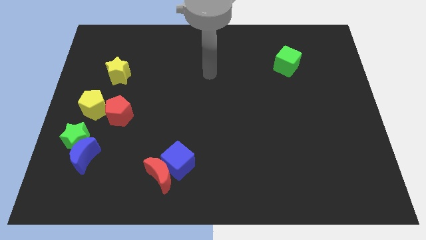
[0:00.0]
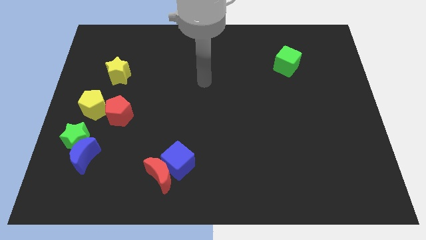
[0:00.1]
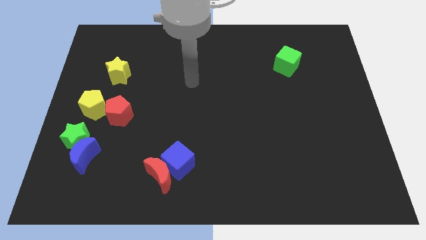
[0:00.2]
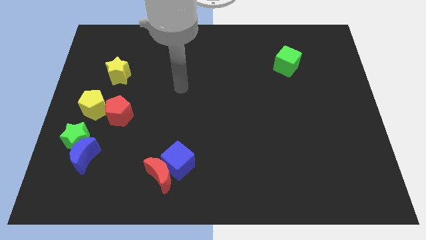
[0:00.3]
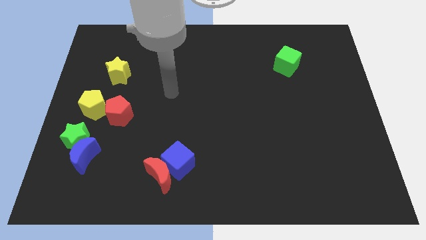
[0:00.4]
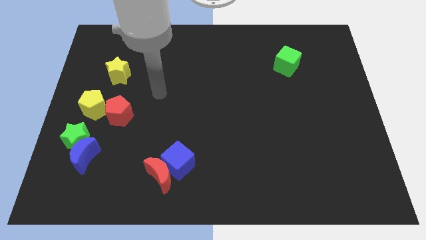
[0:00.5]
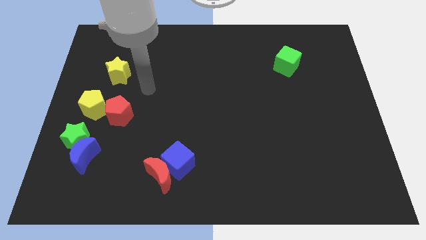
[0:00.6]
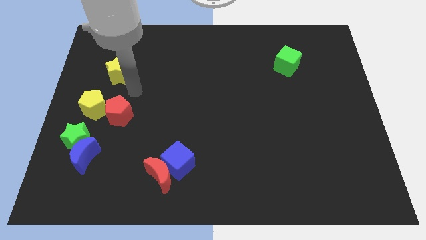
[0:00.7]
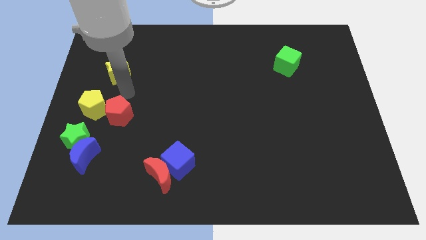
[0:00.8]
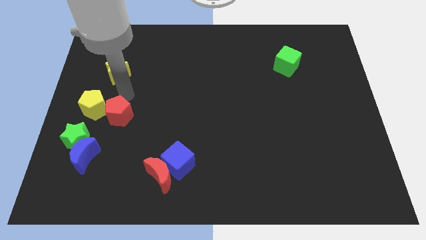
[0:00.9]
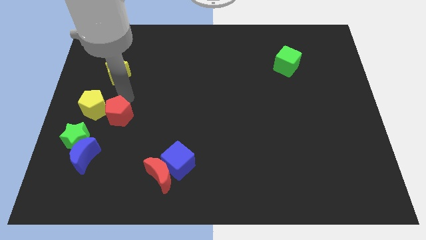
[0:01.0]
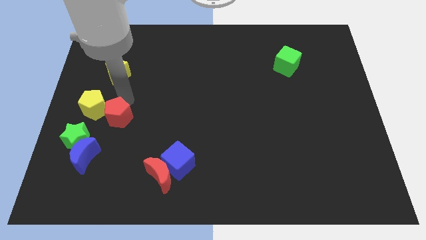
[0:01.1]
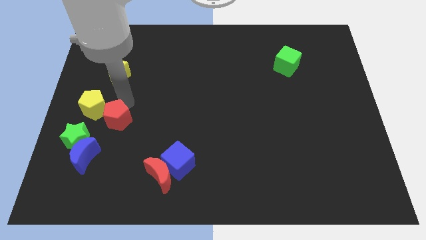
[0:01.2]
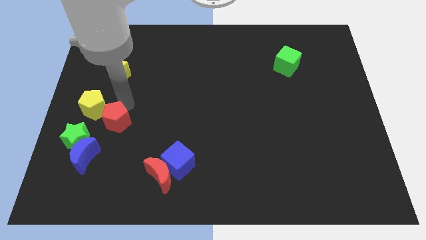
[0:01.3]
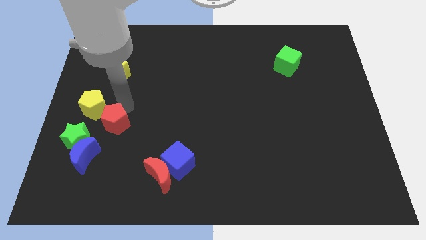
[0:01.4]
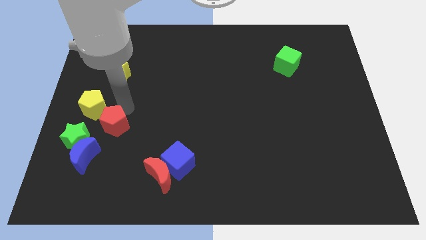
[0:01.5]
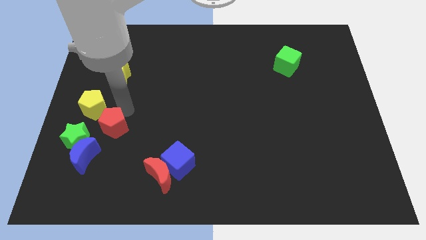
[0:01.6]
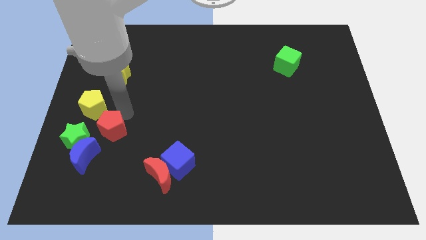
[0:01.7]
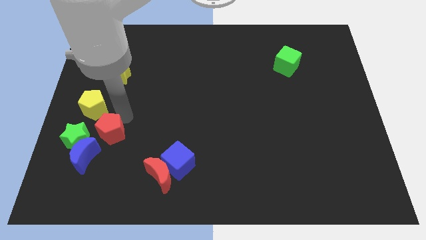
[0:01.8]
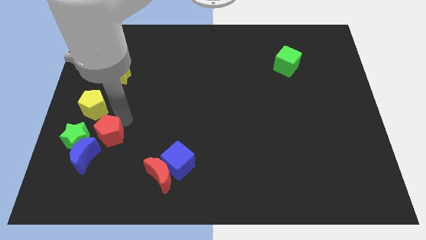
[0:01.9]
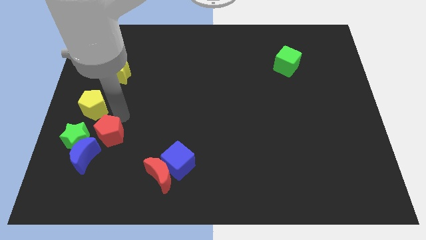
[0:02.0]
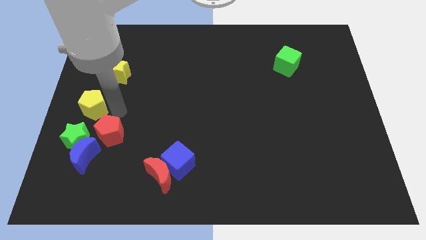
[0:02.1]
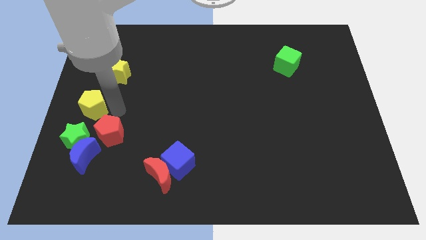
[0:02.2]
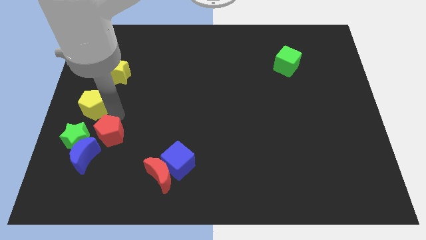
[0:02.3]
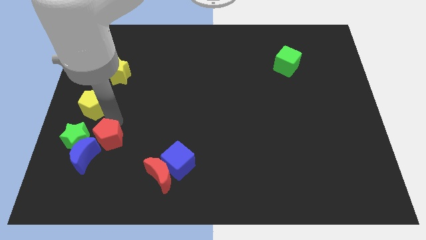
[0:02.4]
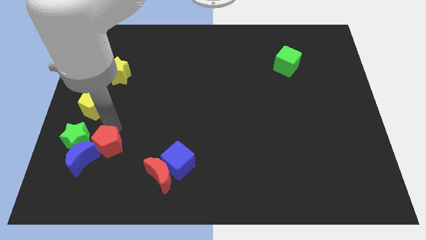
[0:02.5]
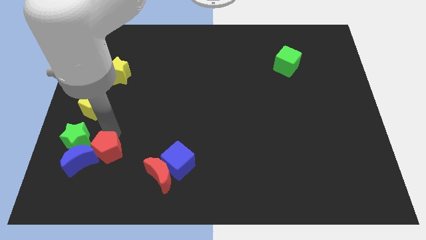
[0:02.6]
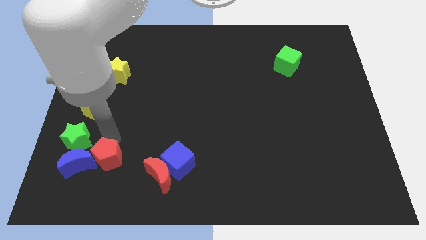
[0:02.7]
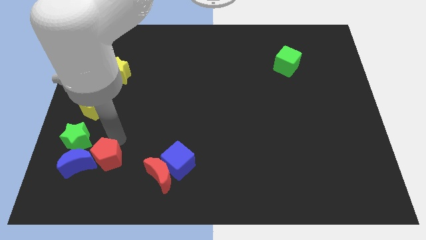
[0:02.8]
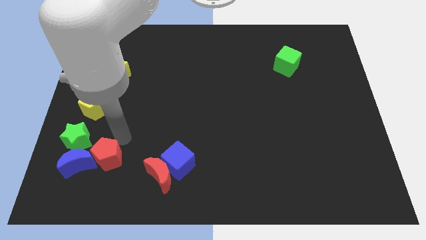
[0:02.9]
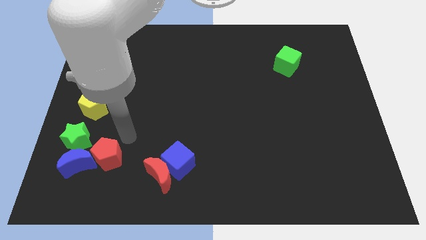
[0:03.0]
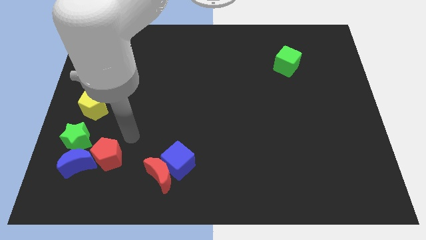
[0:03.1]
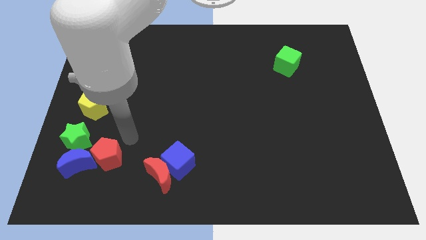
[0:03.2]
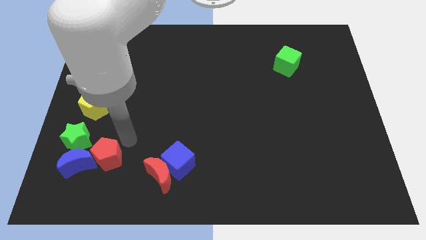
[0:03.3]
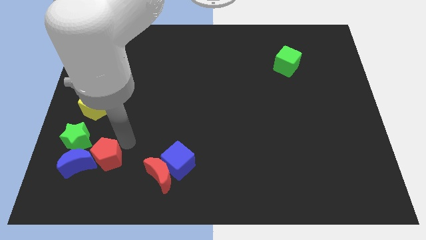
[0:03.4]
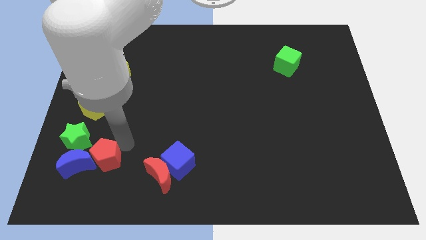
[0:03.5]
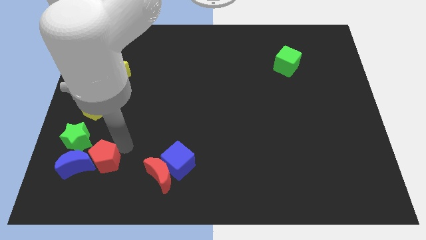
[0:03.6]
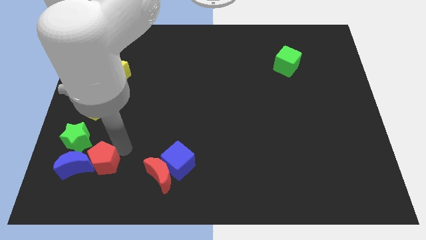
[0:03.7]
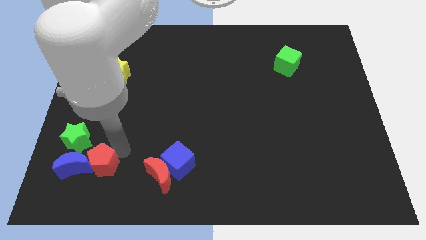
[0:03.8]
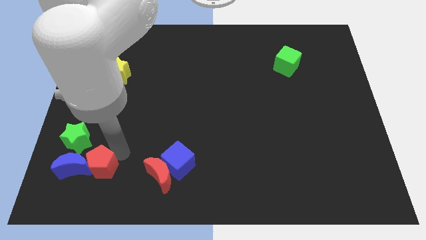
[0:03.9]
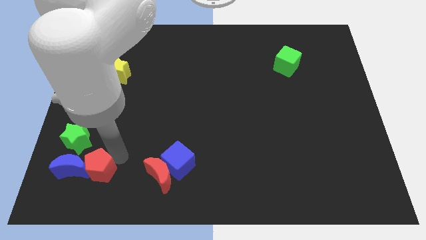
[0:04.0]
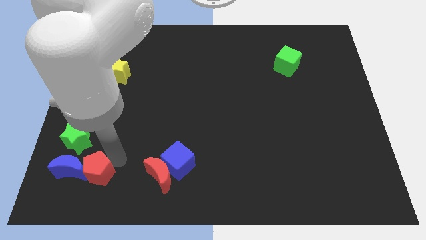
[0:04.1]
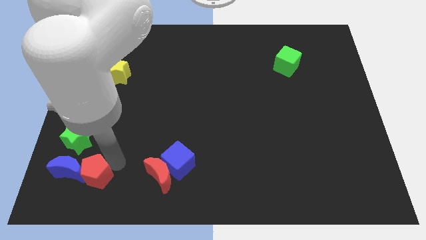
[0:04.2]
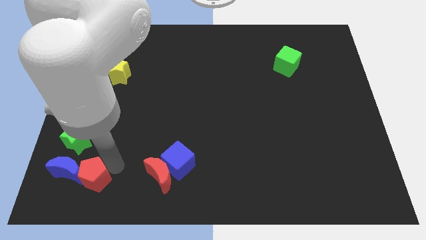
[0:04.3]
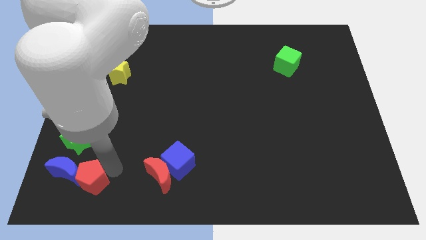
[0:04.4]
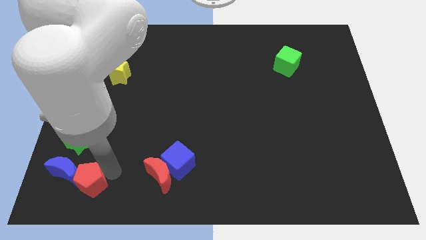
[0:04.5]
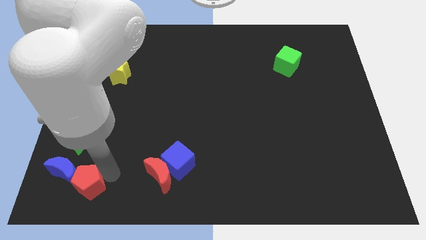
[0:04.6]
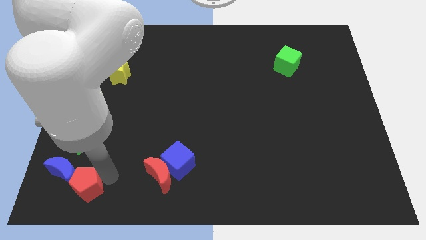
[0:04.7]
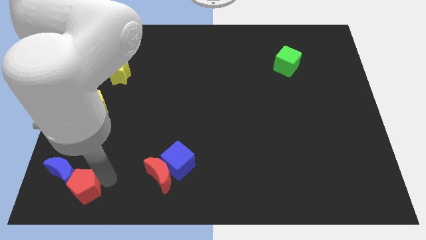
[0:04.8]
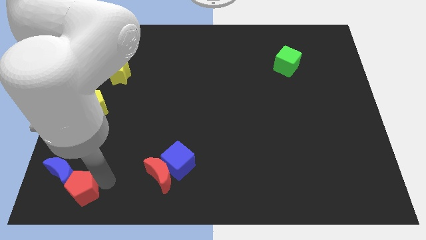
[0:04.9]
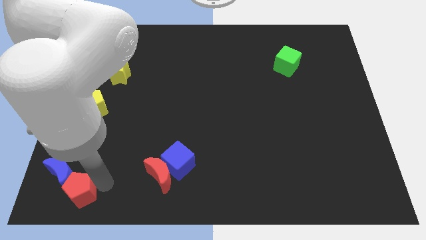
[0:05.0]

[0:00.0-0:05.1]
put the red pentagon to the lower left corner

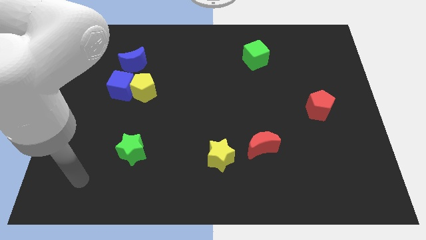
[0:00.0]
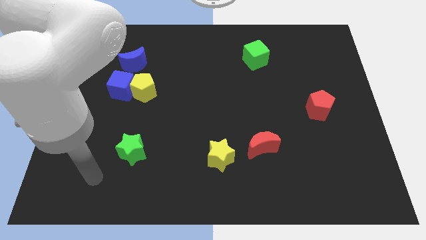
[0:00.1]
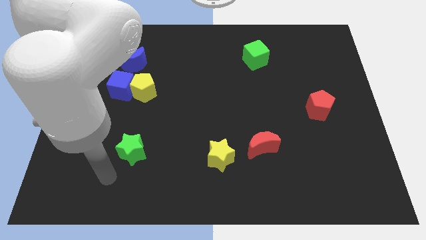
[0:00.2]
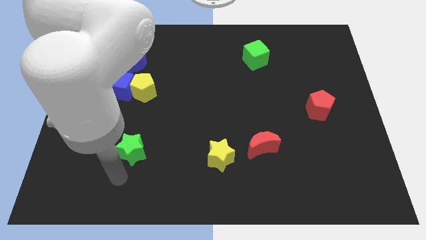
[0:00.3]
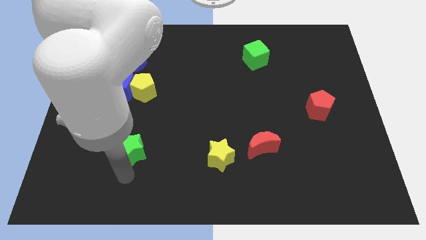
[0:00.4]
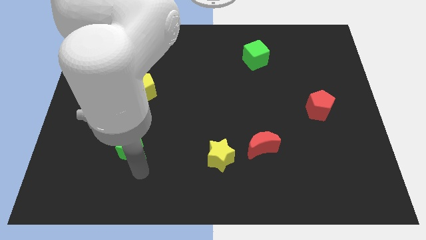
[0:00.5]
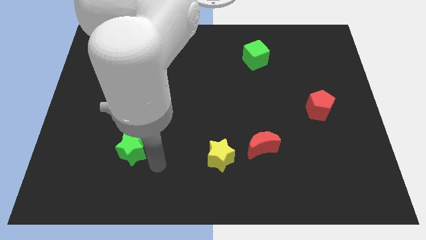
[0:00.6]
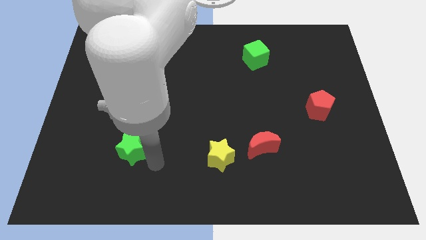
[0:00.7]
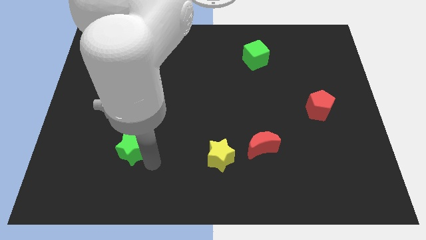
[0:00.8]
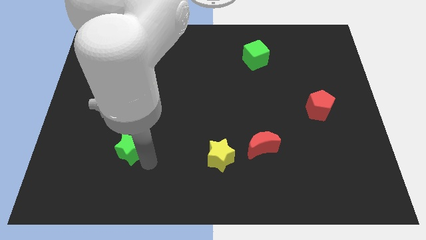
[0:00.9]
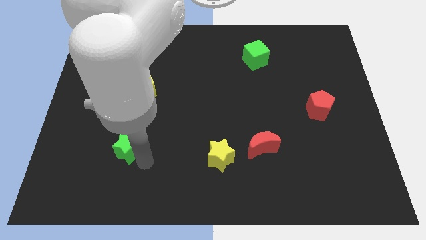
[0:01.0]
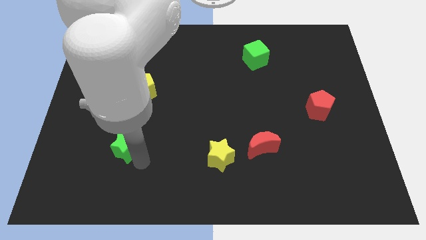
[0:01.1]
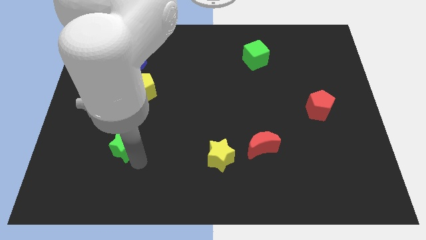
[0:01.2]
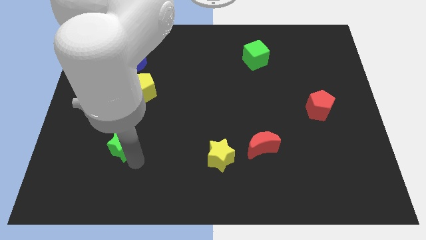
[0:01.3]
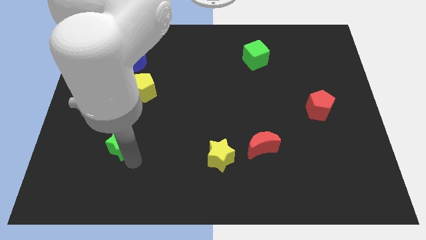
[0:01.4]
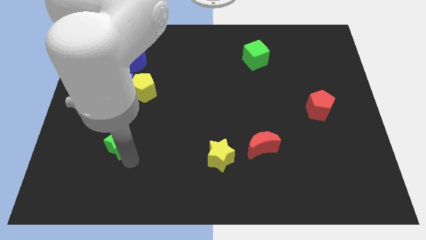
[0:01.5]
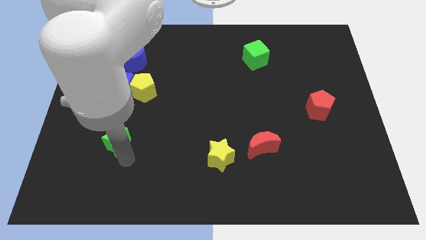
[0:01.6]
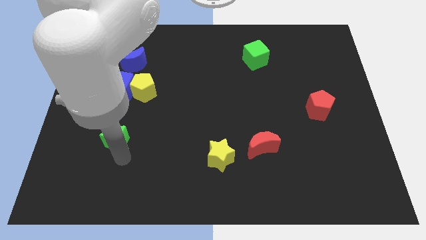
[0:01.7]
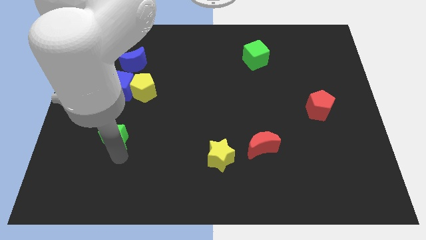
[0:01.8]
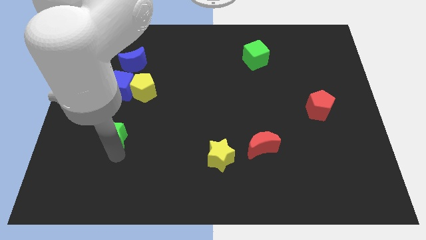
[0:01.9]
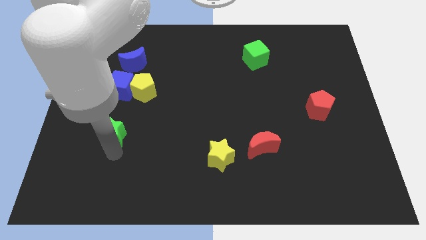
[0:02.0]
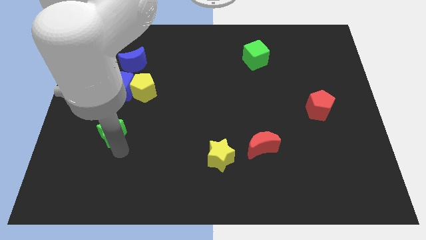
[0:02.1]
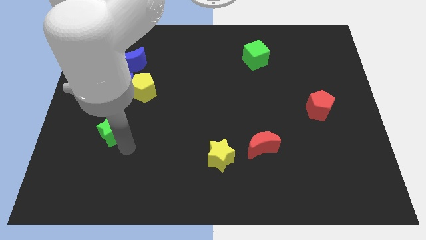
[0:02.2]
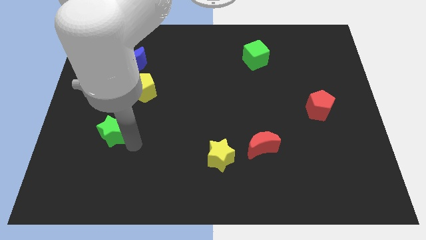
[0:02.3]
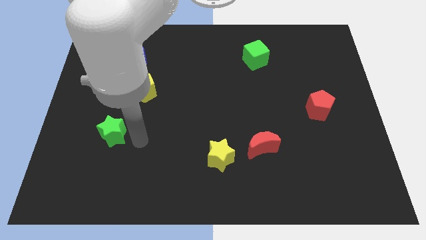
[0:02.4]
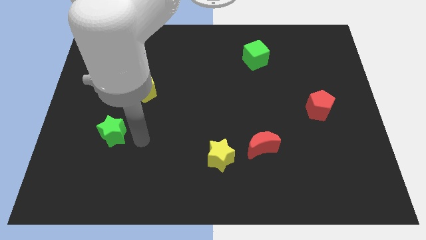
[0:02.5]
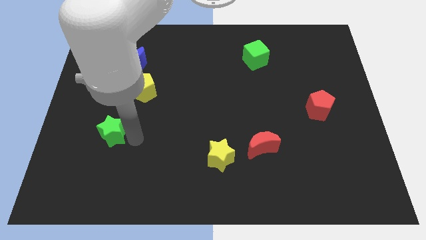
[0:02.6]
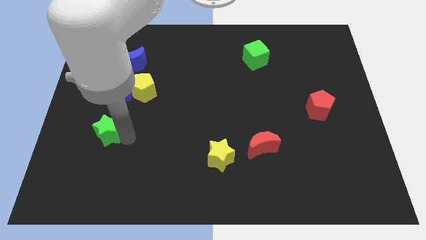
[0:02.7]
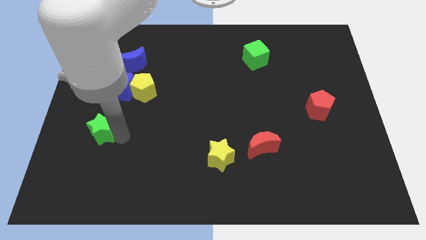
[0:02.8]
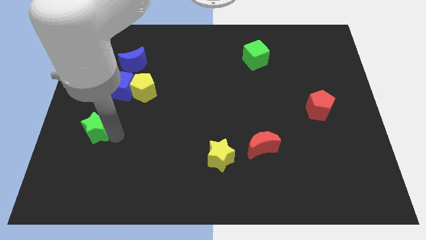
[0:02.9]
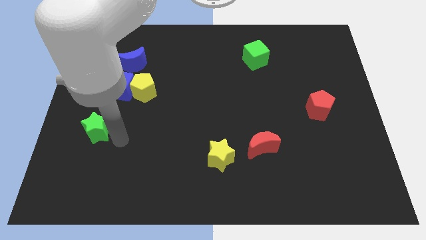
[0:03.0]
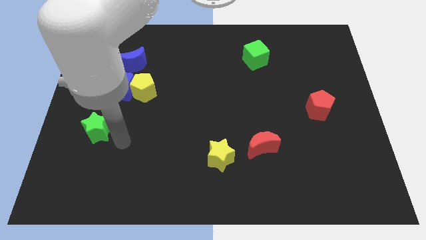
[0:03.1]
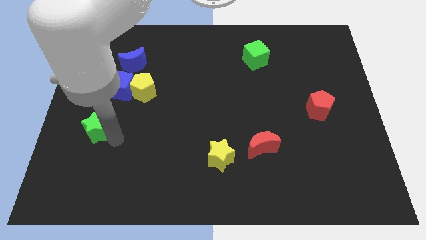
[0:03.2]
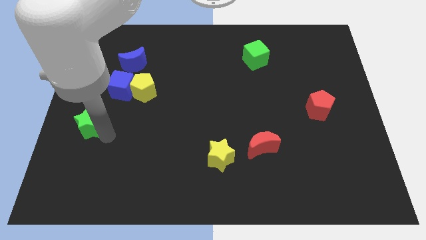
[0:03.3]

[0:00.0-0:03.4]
push the green star to the left side
